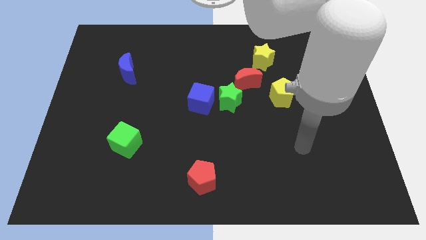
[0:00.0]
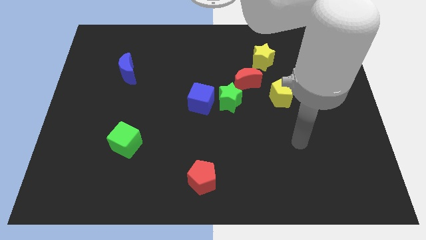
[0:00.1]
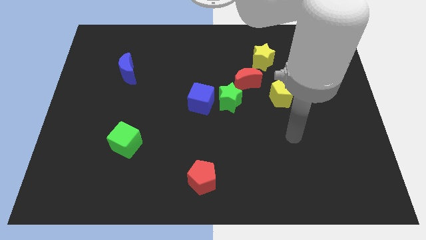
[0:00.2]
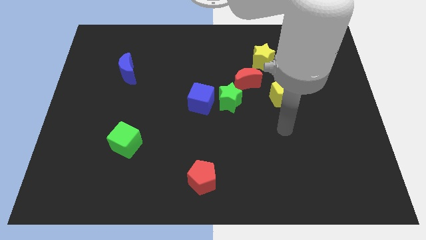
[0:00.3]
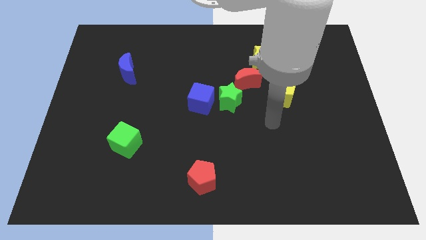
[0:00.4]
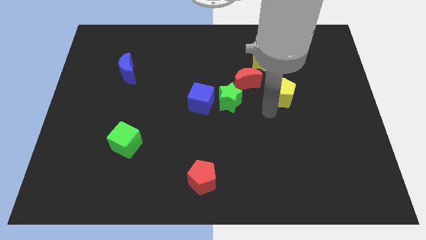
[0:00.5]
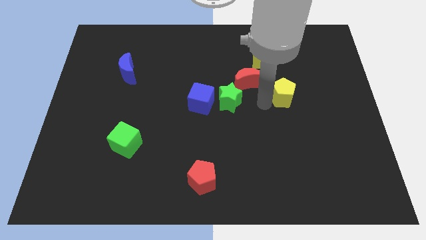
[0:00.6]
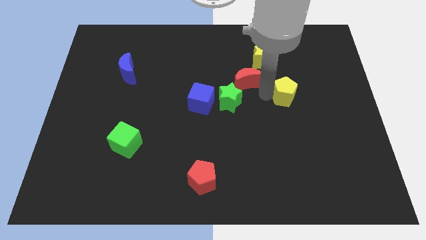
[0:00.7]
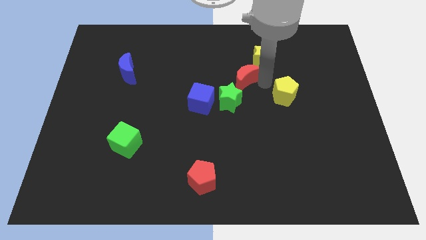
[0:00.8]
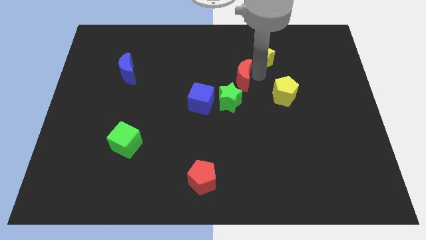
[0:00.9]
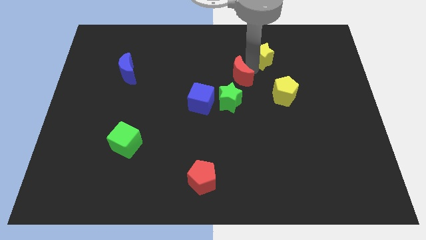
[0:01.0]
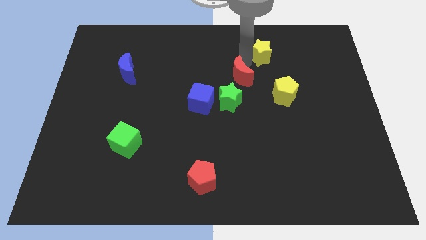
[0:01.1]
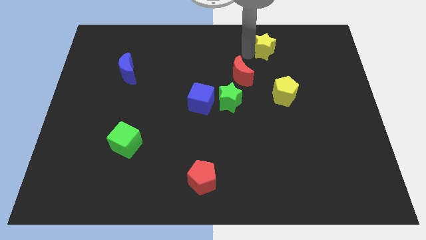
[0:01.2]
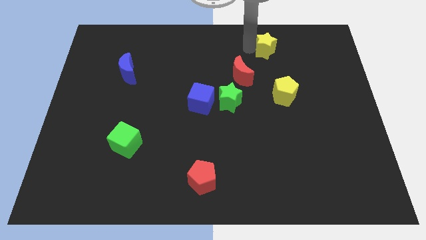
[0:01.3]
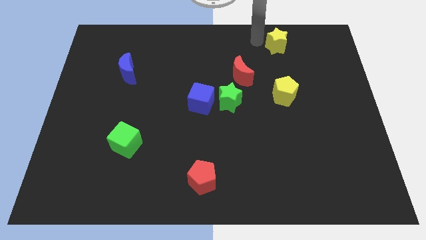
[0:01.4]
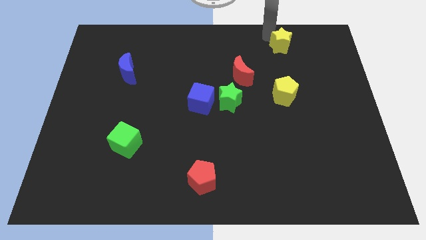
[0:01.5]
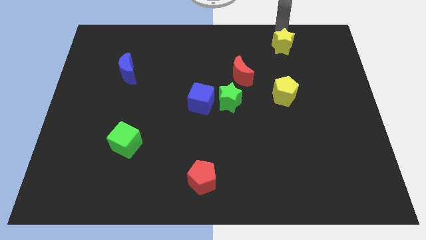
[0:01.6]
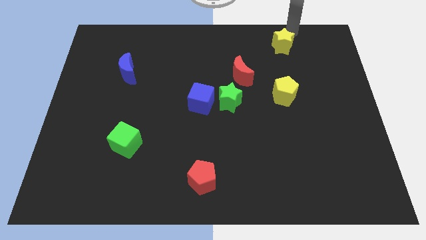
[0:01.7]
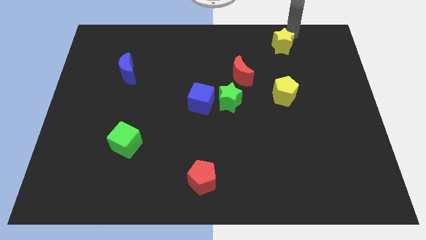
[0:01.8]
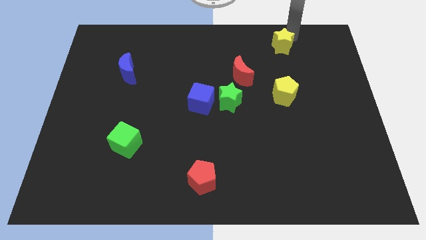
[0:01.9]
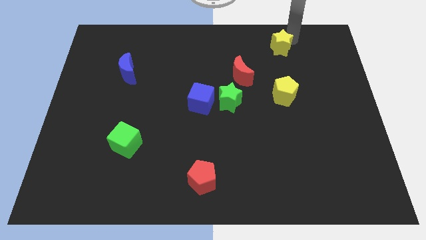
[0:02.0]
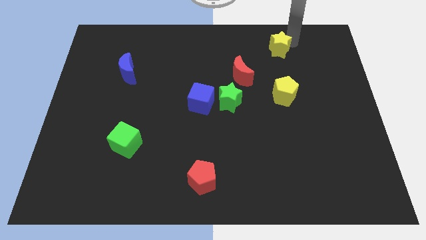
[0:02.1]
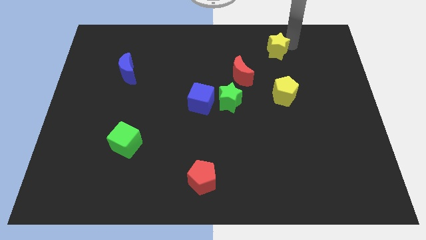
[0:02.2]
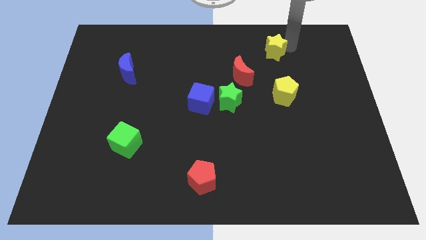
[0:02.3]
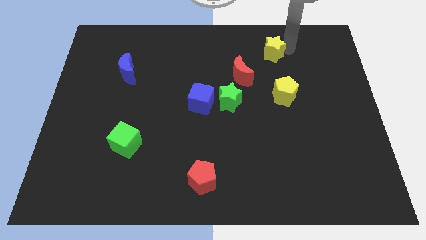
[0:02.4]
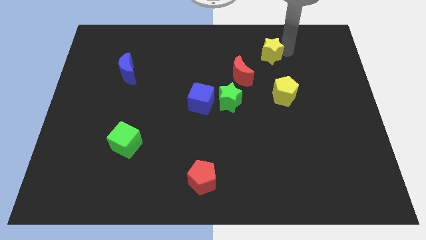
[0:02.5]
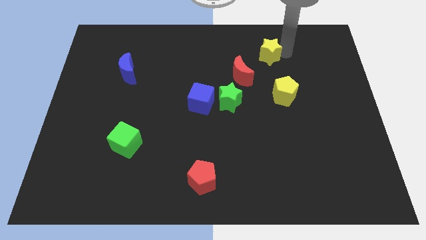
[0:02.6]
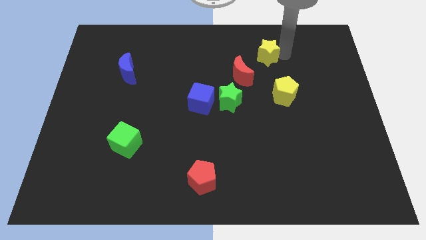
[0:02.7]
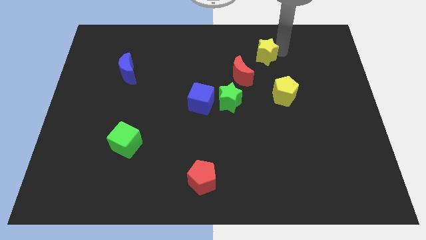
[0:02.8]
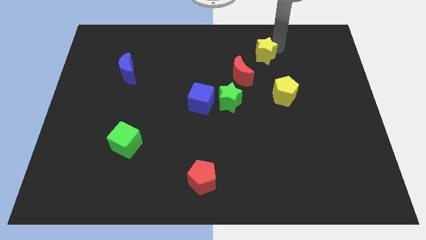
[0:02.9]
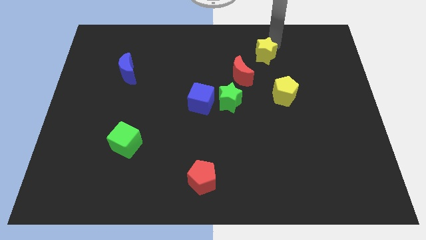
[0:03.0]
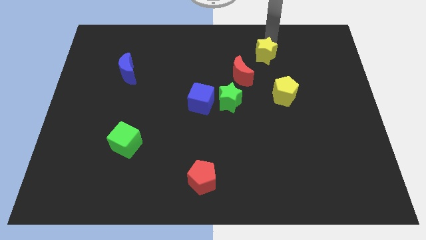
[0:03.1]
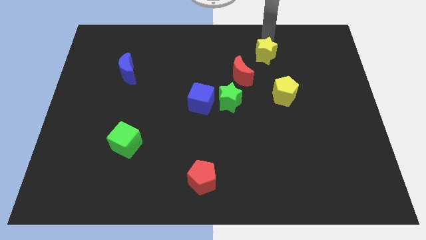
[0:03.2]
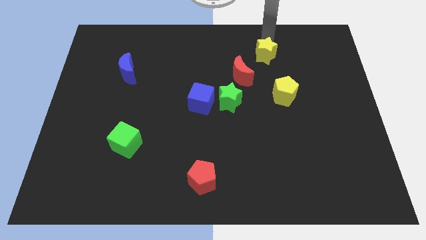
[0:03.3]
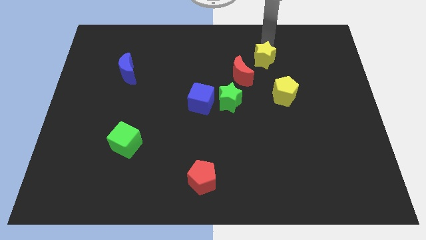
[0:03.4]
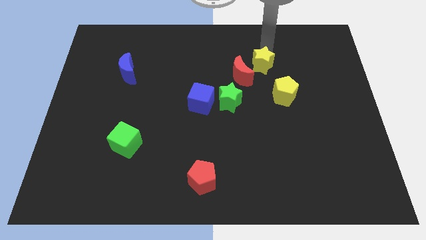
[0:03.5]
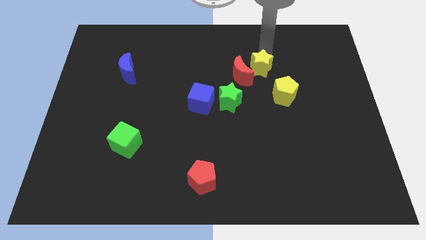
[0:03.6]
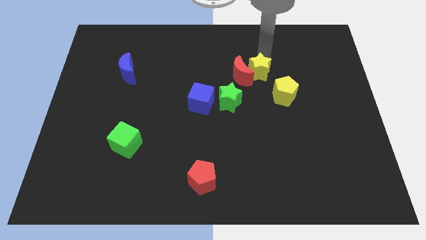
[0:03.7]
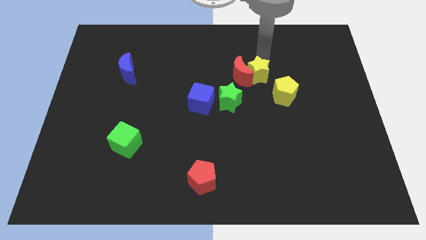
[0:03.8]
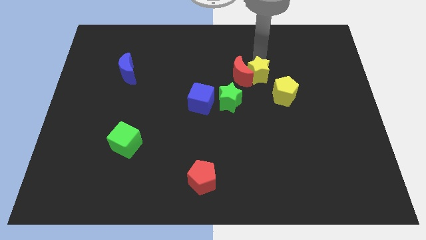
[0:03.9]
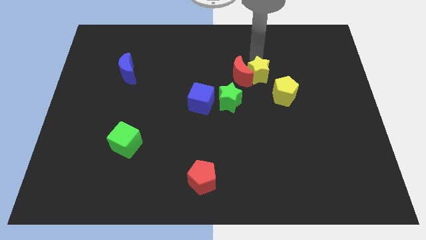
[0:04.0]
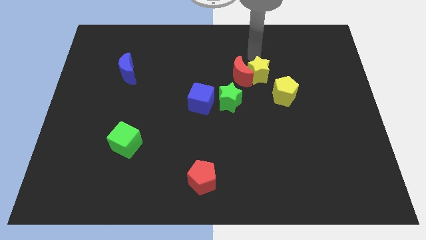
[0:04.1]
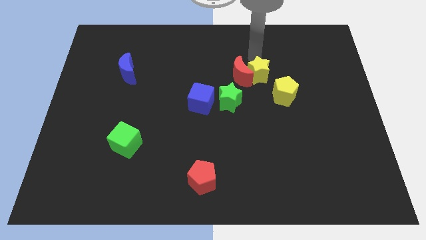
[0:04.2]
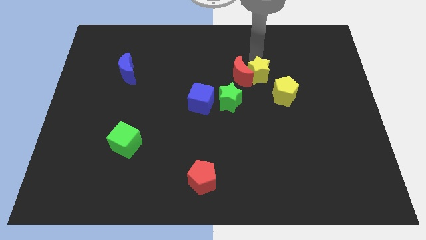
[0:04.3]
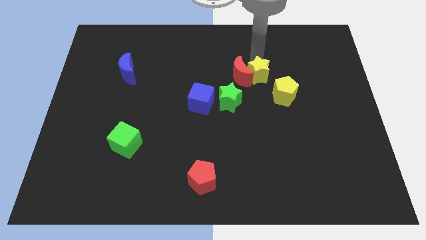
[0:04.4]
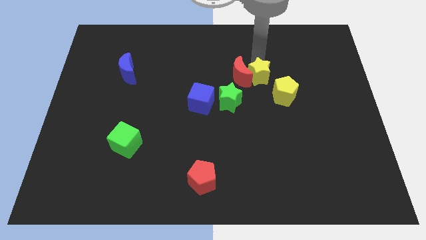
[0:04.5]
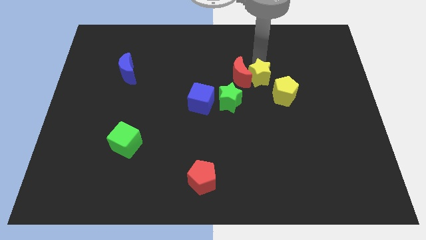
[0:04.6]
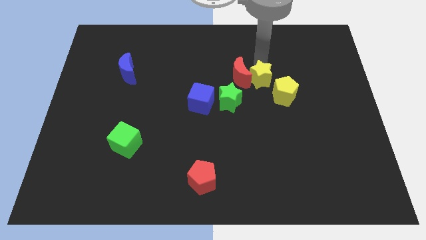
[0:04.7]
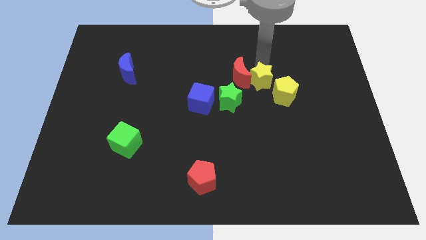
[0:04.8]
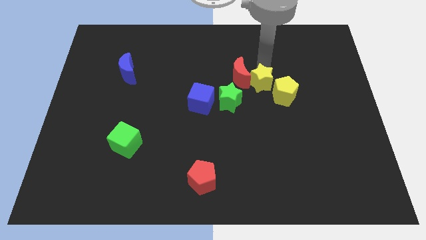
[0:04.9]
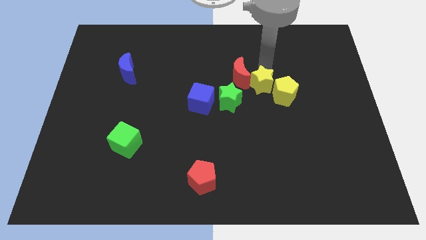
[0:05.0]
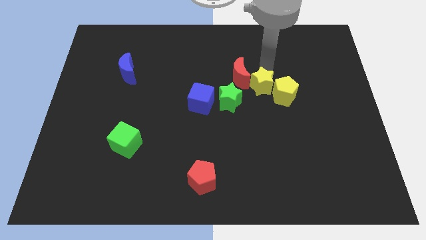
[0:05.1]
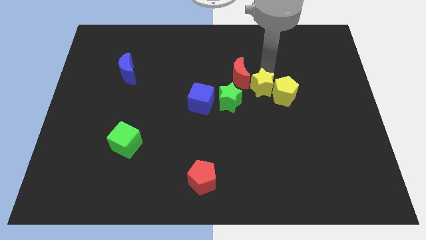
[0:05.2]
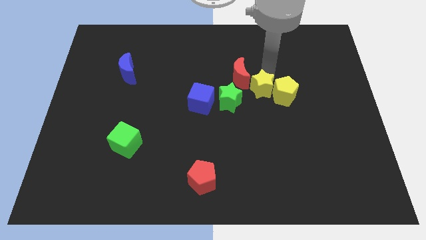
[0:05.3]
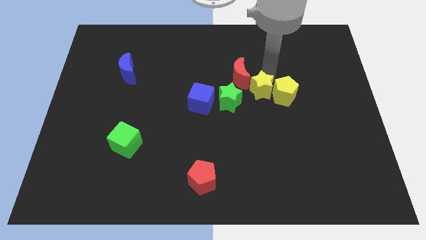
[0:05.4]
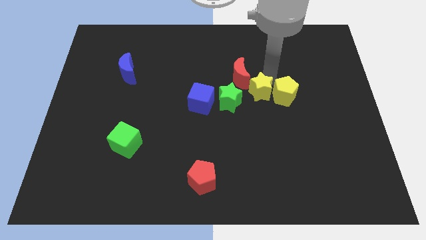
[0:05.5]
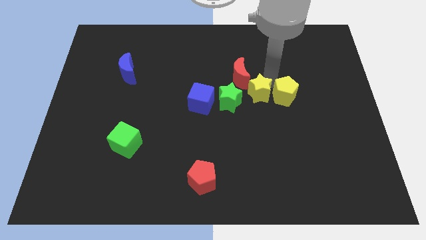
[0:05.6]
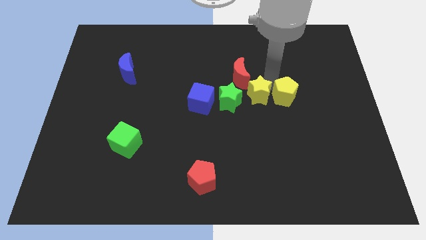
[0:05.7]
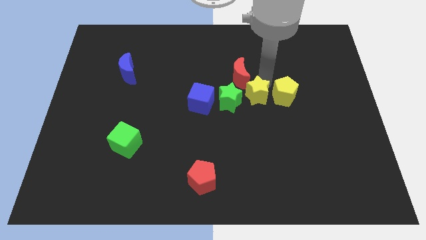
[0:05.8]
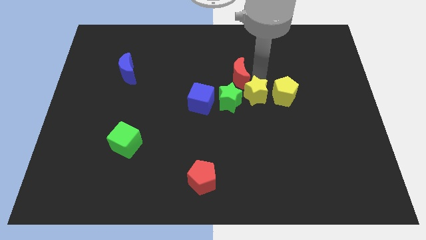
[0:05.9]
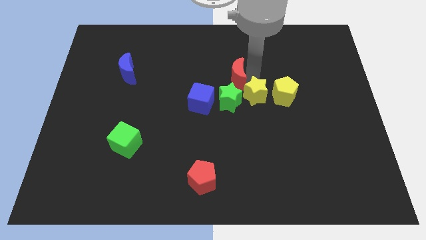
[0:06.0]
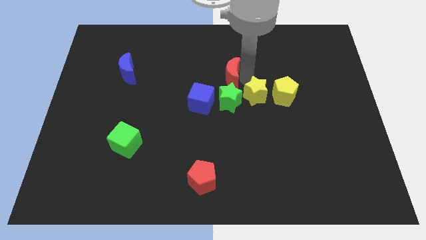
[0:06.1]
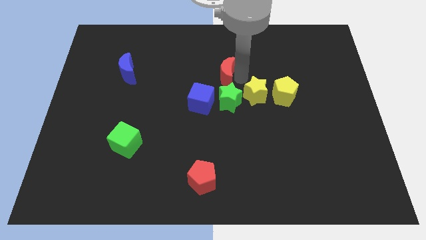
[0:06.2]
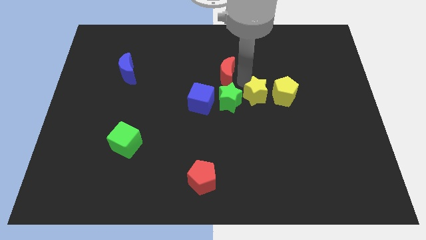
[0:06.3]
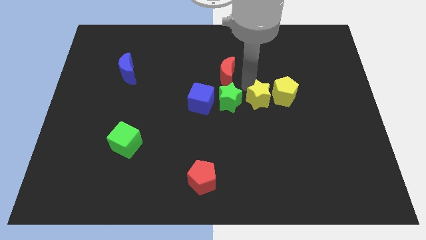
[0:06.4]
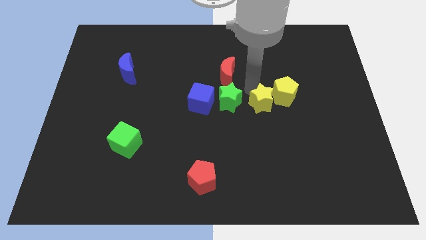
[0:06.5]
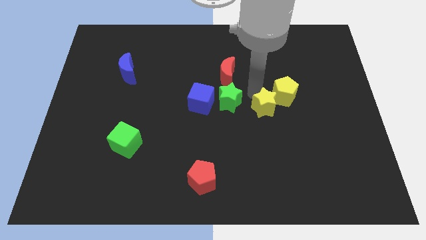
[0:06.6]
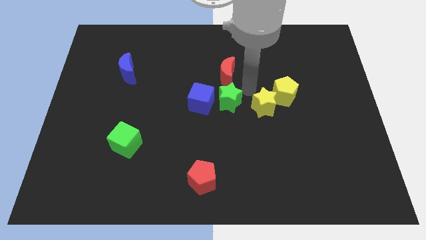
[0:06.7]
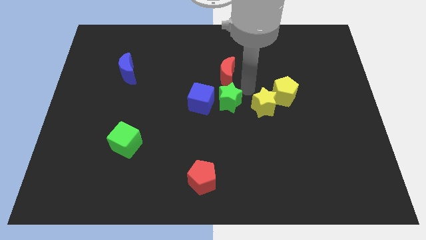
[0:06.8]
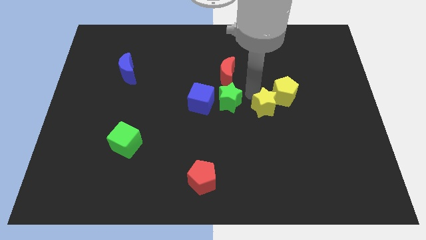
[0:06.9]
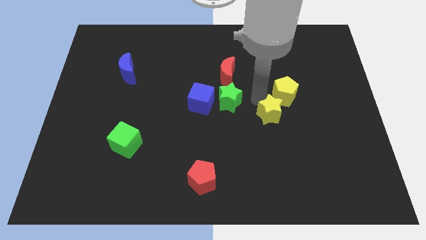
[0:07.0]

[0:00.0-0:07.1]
put the yellow star to the bottom side of the yellow pentagon
